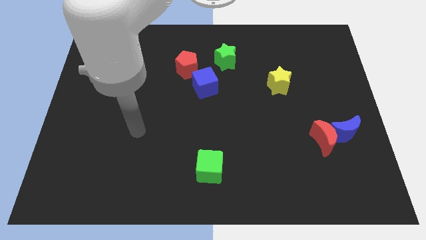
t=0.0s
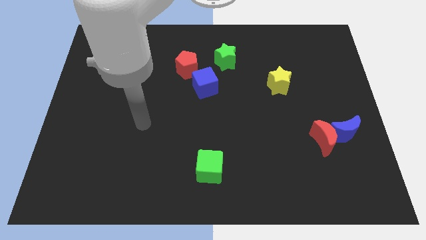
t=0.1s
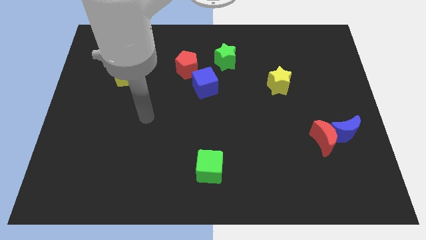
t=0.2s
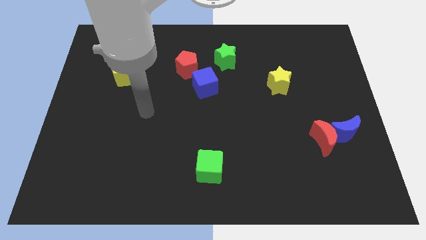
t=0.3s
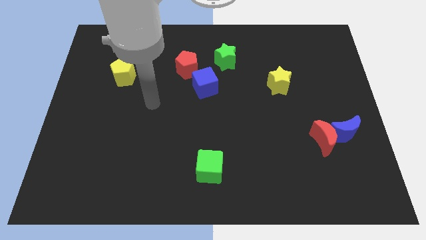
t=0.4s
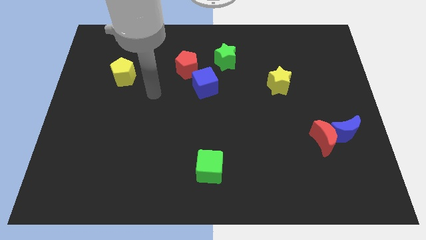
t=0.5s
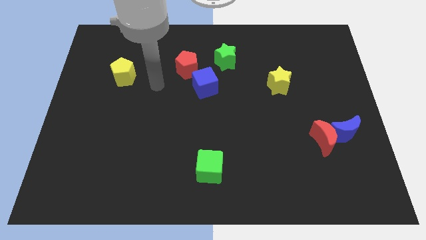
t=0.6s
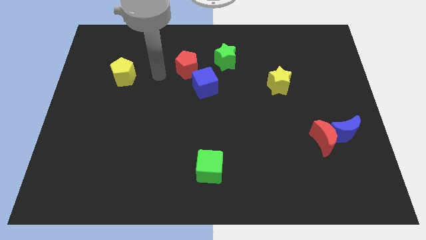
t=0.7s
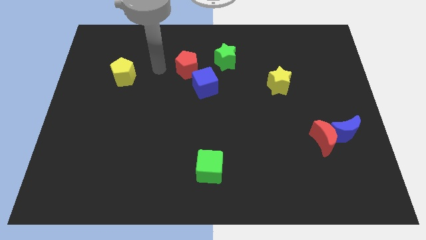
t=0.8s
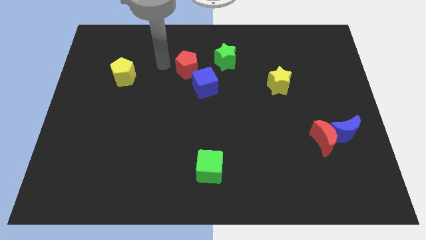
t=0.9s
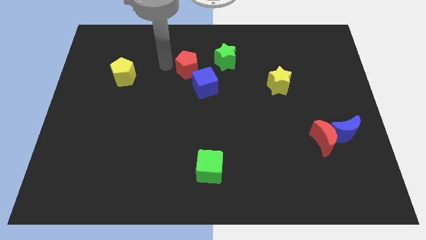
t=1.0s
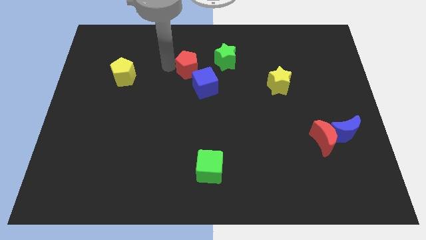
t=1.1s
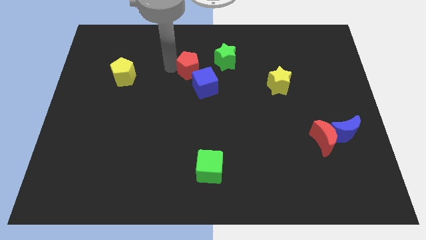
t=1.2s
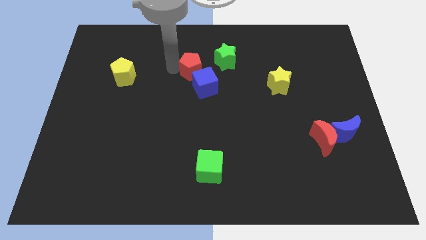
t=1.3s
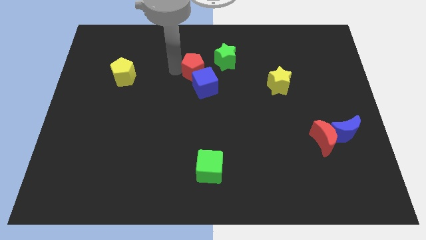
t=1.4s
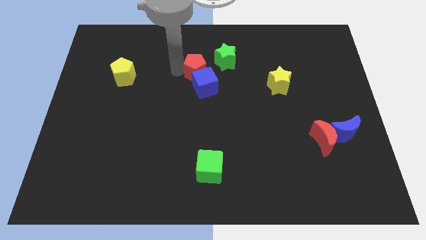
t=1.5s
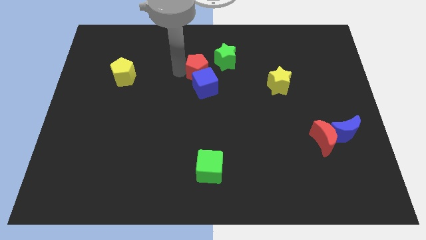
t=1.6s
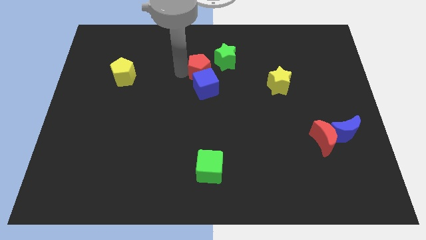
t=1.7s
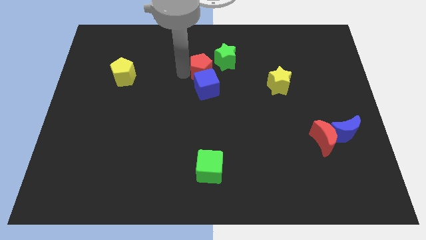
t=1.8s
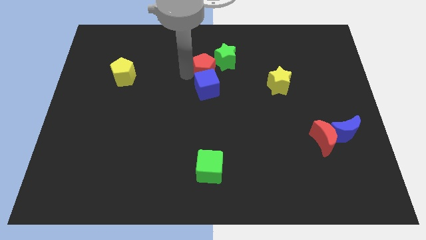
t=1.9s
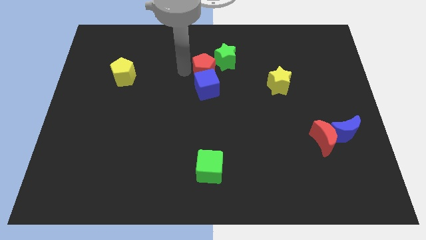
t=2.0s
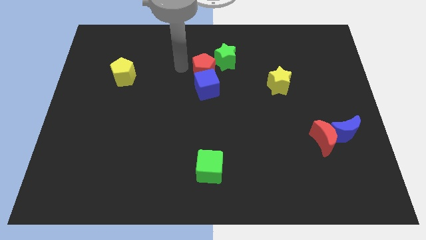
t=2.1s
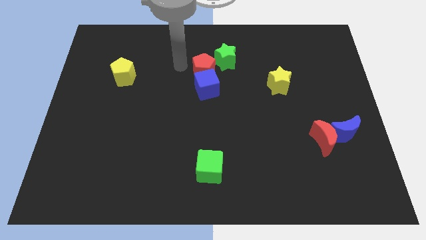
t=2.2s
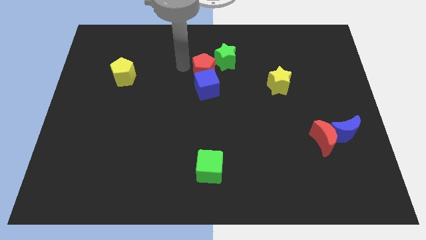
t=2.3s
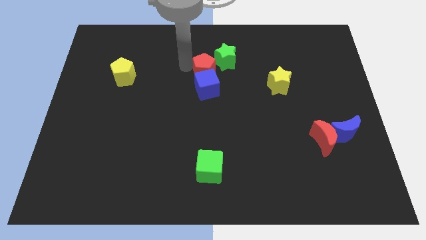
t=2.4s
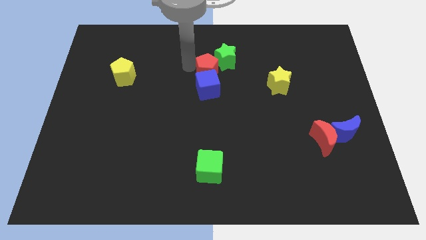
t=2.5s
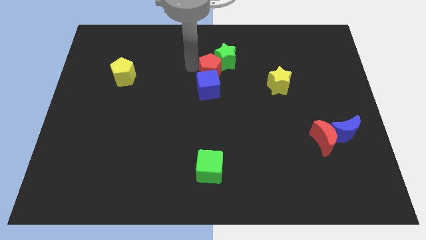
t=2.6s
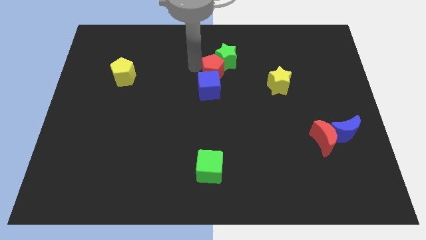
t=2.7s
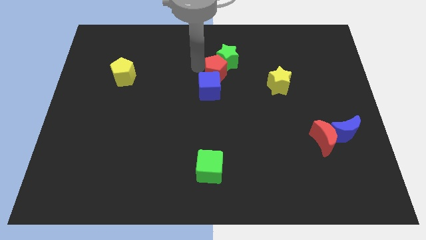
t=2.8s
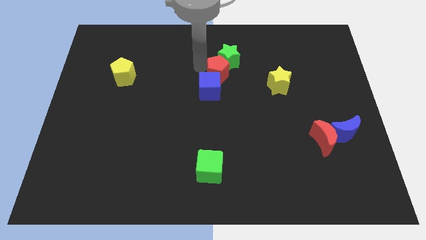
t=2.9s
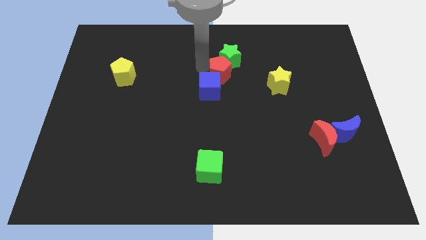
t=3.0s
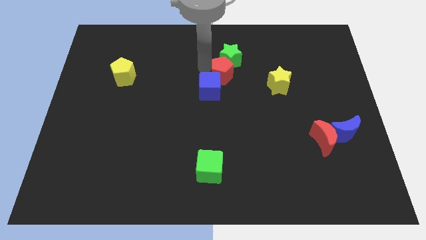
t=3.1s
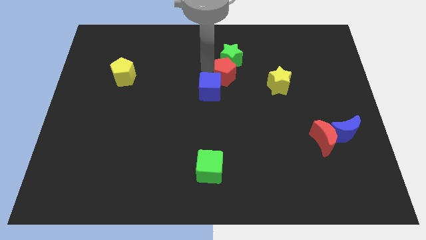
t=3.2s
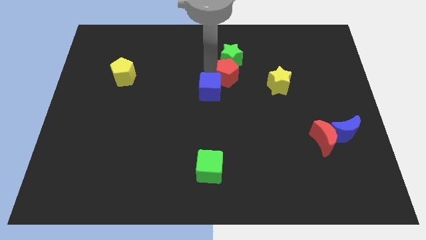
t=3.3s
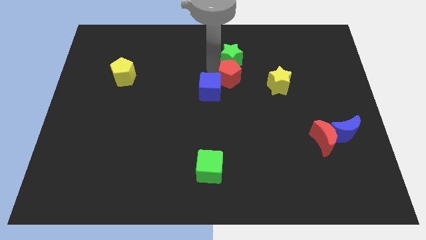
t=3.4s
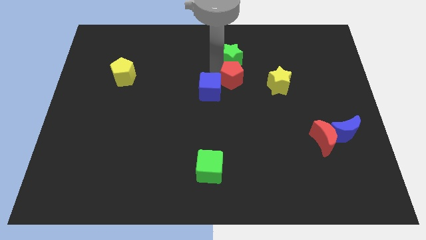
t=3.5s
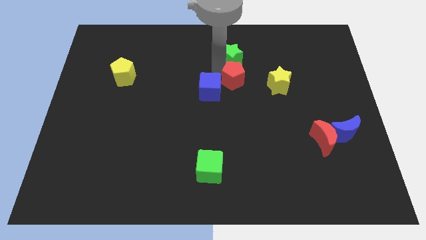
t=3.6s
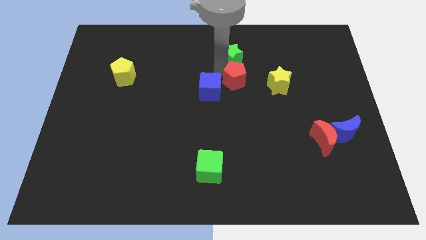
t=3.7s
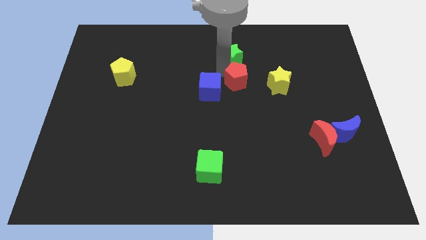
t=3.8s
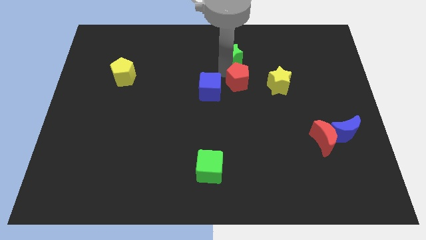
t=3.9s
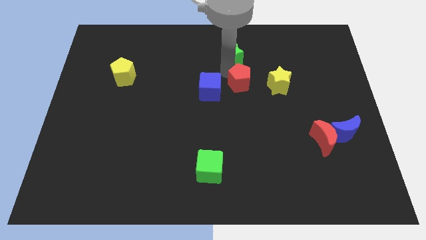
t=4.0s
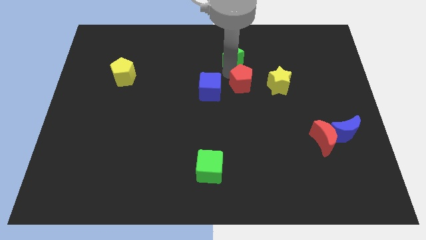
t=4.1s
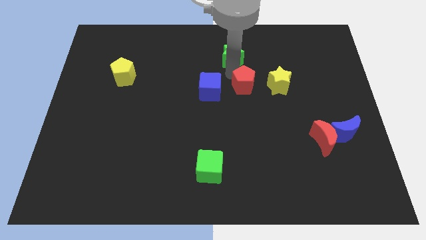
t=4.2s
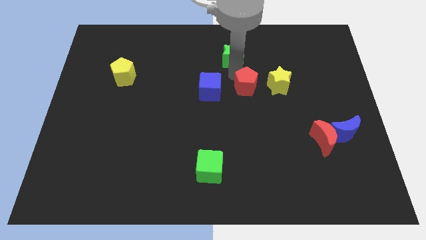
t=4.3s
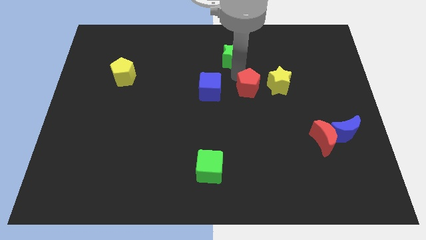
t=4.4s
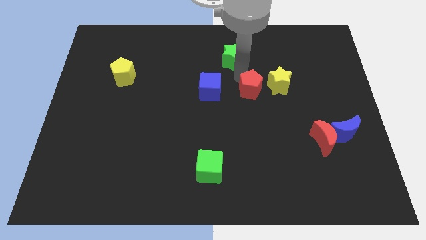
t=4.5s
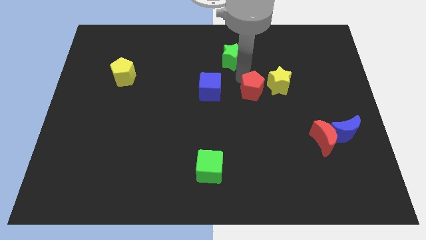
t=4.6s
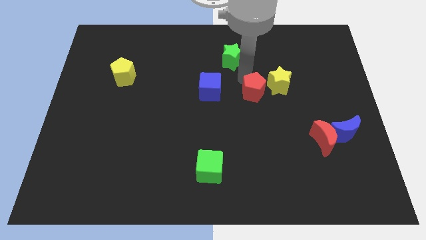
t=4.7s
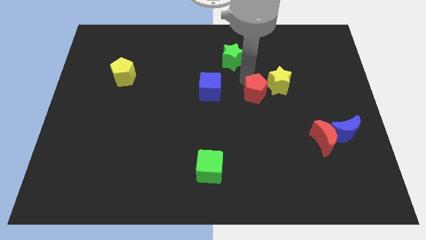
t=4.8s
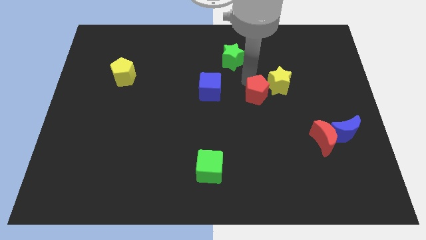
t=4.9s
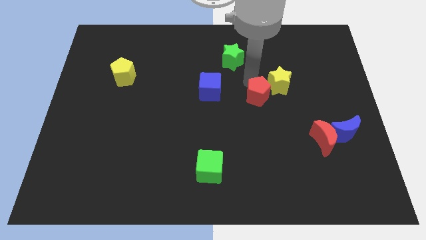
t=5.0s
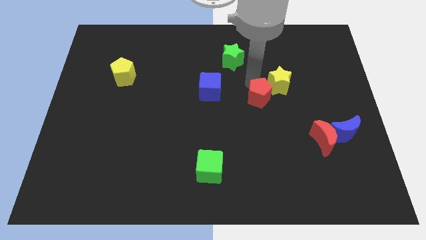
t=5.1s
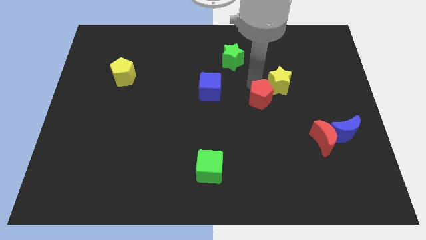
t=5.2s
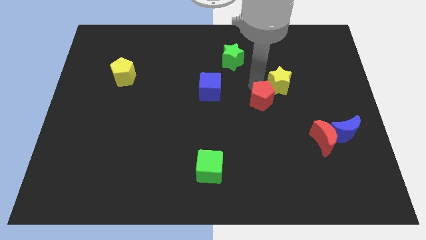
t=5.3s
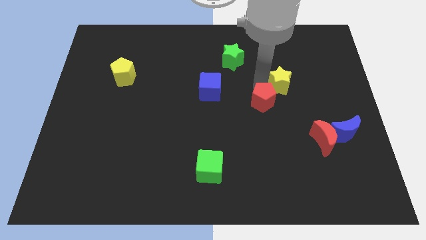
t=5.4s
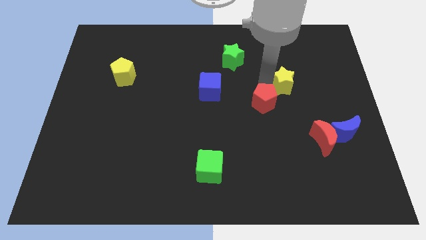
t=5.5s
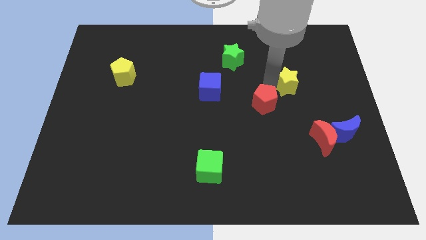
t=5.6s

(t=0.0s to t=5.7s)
push the red pentagon downwards and right diagonally

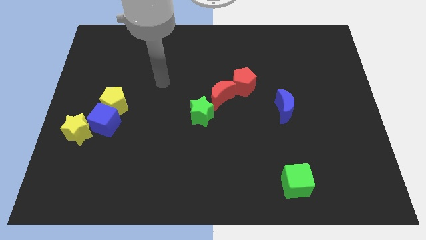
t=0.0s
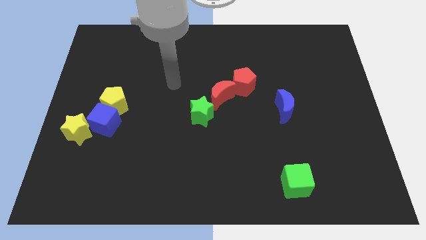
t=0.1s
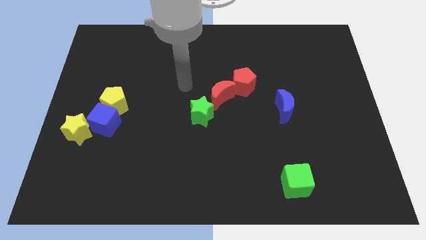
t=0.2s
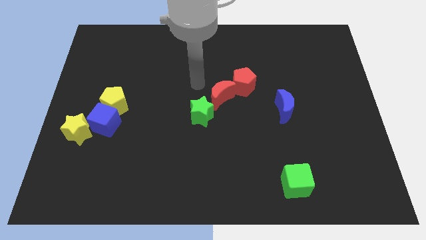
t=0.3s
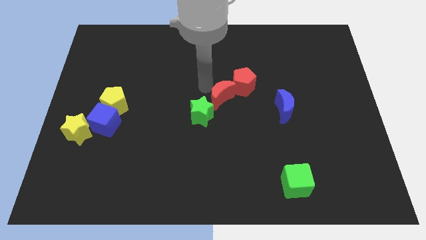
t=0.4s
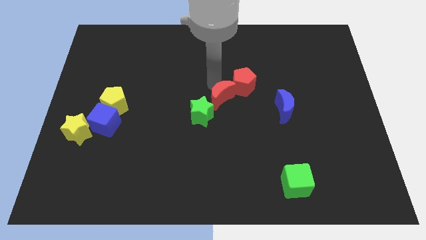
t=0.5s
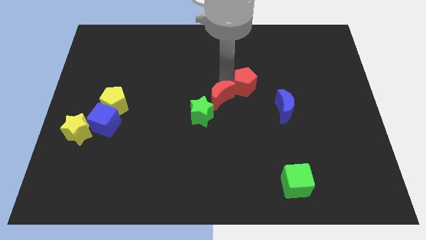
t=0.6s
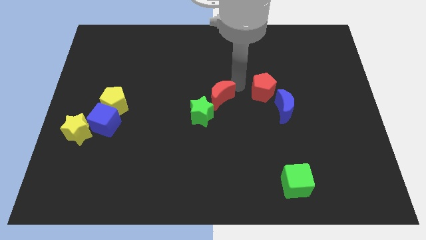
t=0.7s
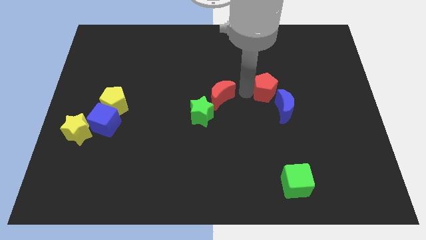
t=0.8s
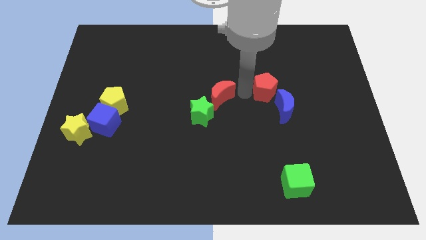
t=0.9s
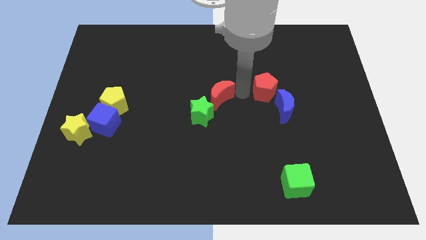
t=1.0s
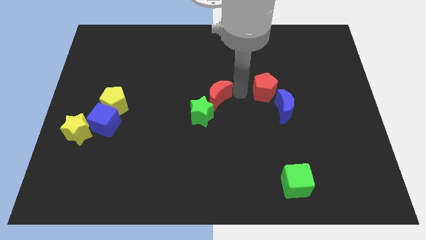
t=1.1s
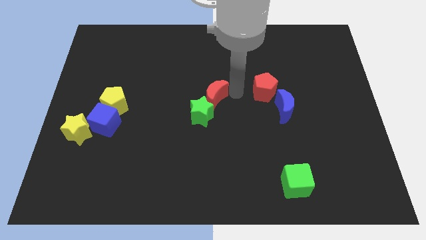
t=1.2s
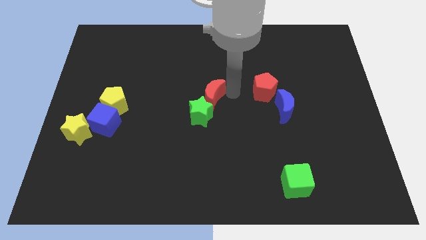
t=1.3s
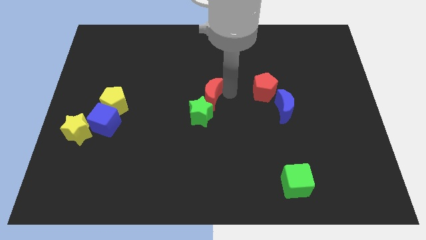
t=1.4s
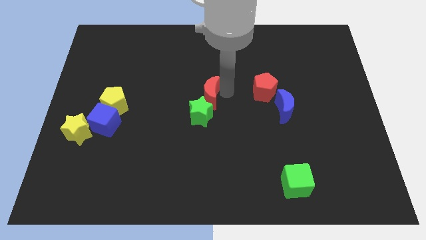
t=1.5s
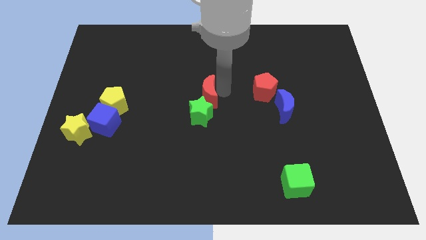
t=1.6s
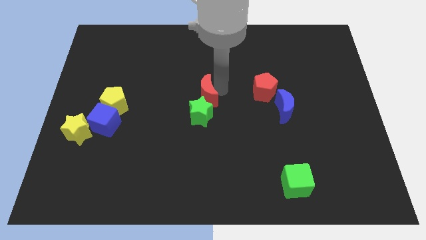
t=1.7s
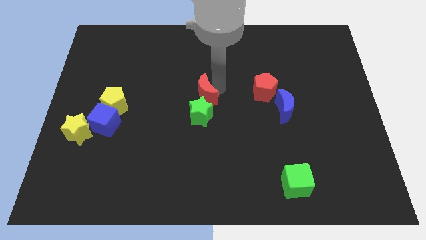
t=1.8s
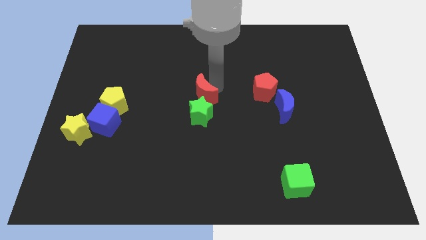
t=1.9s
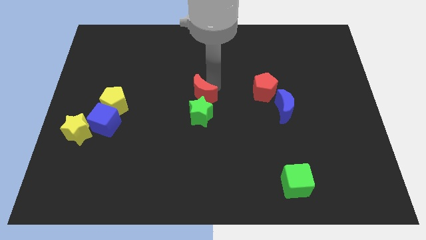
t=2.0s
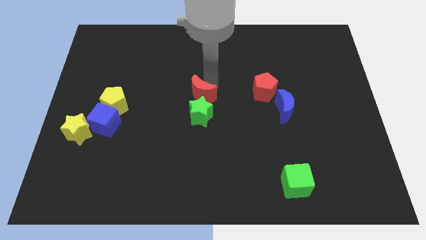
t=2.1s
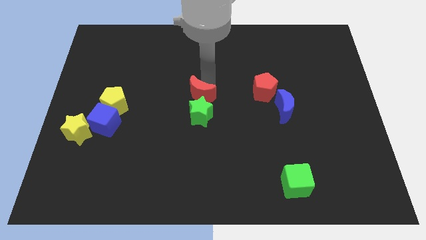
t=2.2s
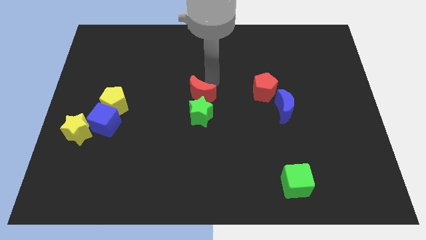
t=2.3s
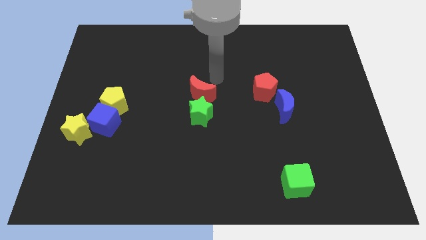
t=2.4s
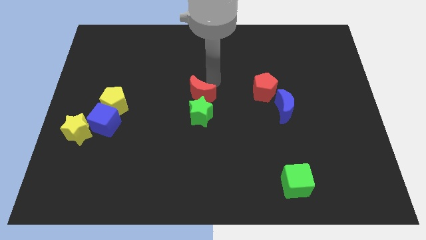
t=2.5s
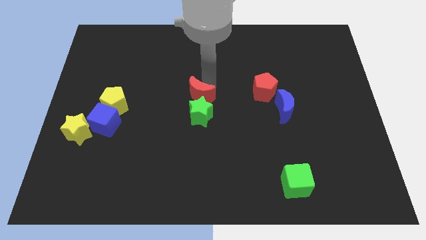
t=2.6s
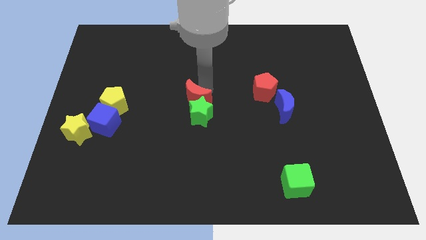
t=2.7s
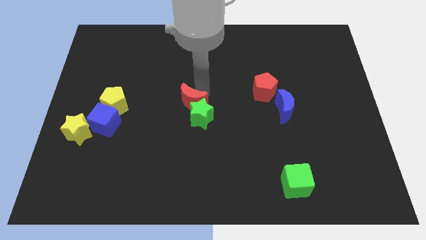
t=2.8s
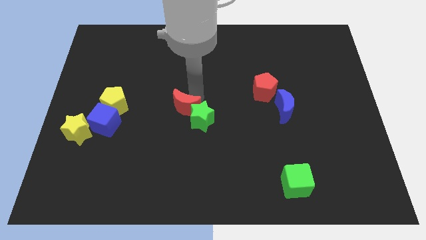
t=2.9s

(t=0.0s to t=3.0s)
slightly move the red moon downwards and then left
